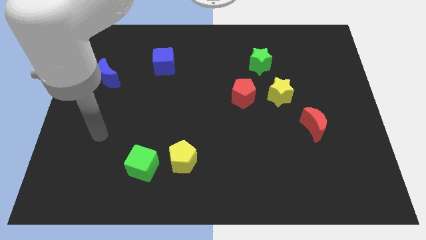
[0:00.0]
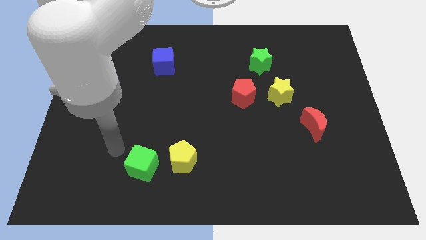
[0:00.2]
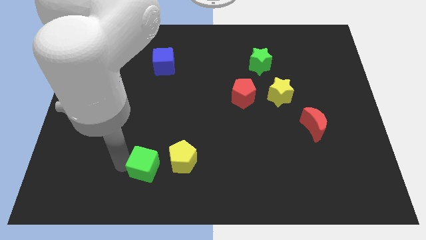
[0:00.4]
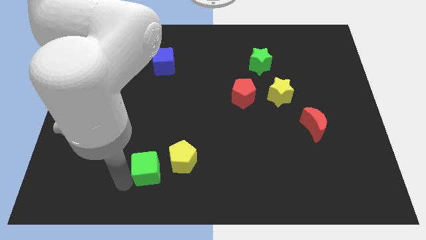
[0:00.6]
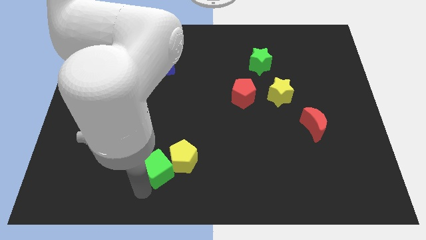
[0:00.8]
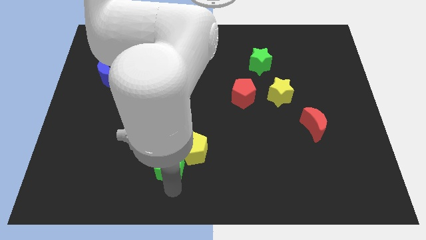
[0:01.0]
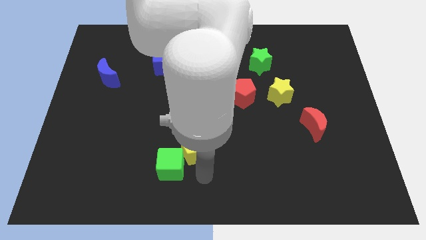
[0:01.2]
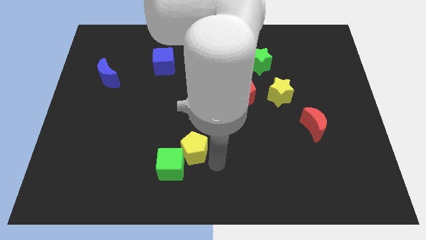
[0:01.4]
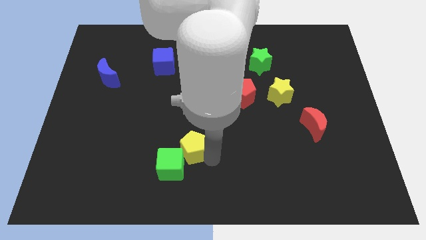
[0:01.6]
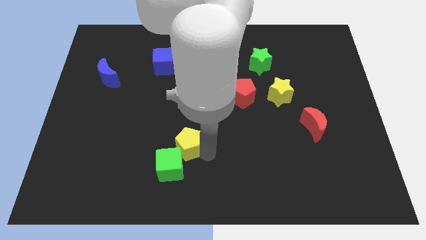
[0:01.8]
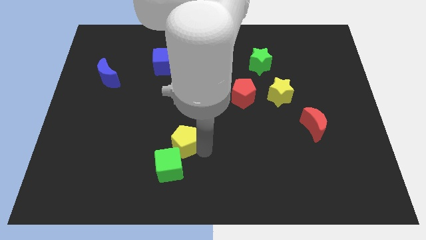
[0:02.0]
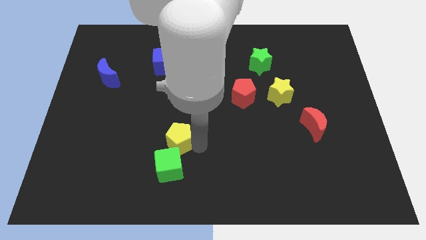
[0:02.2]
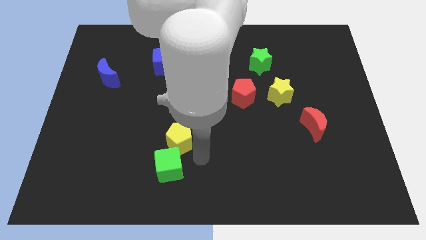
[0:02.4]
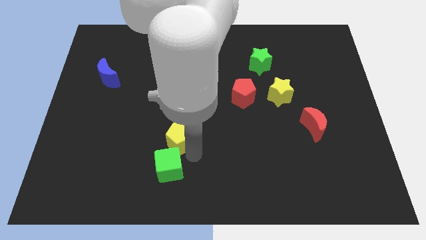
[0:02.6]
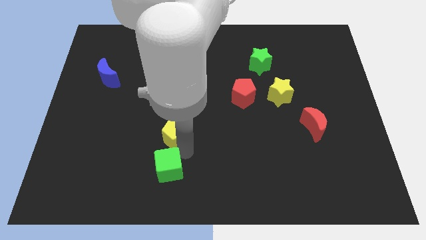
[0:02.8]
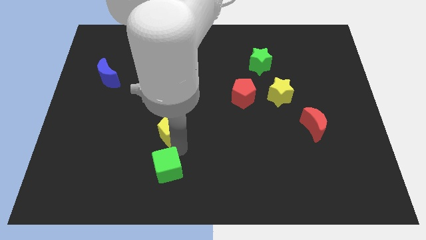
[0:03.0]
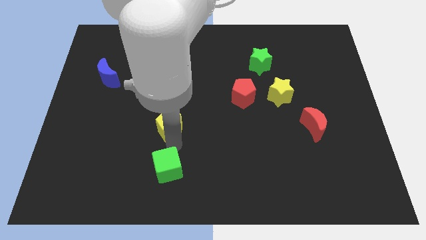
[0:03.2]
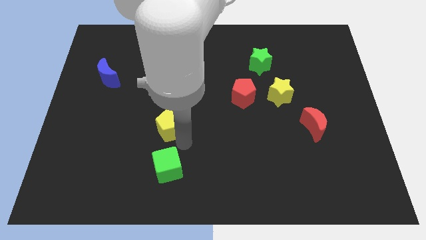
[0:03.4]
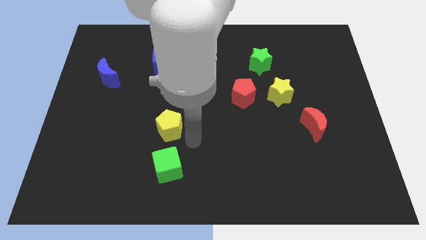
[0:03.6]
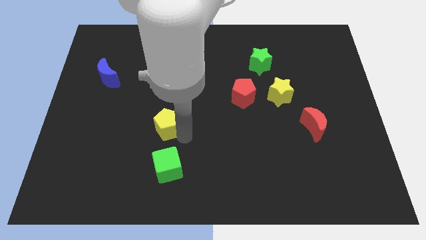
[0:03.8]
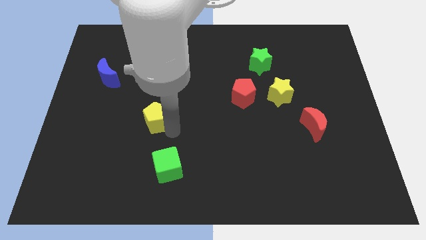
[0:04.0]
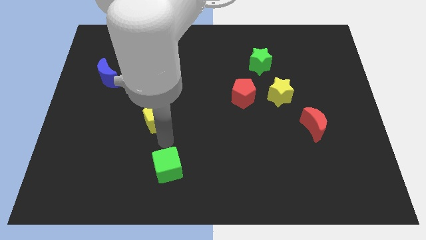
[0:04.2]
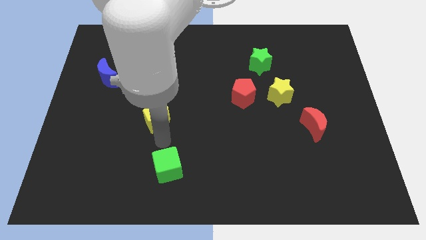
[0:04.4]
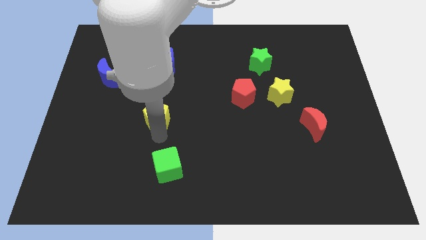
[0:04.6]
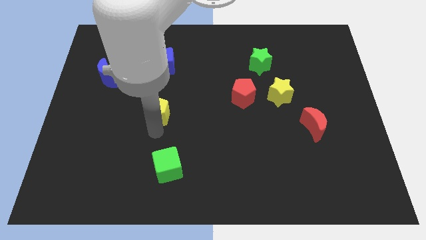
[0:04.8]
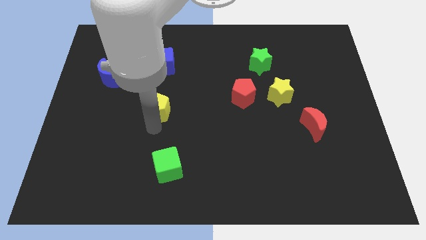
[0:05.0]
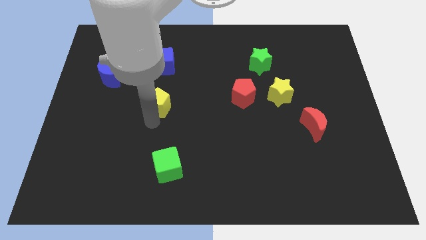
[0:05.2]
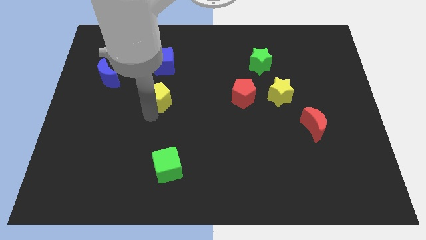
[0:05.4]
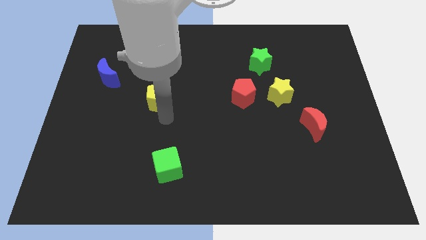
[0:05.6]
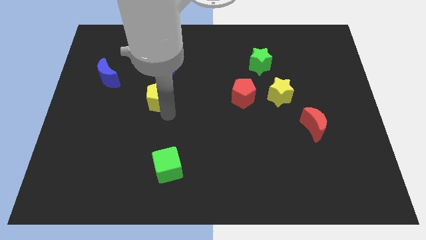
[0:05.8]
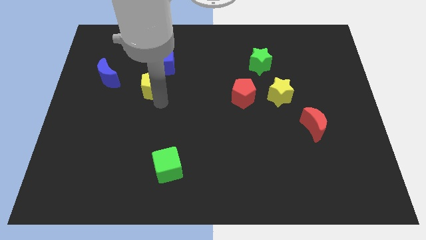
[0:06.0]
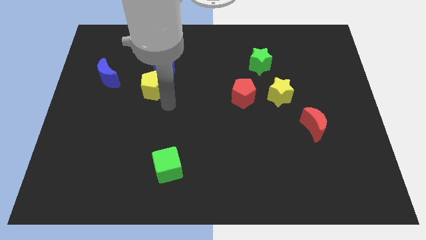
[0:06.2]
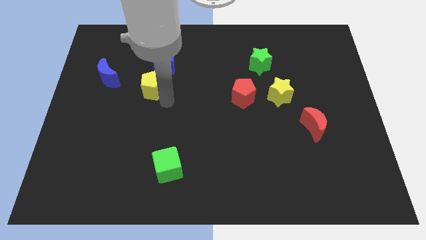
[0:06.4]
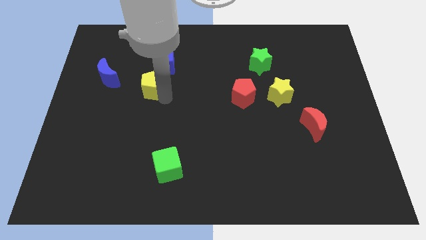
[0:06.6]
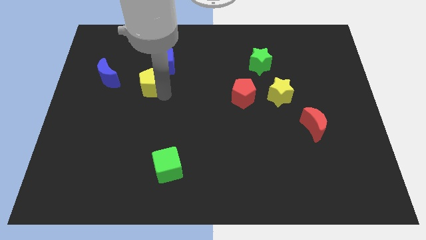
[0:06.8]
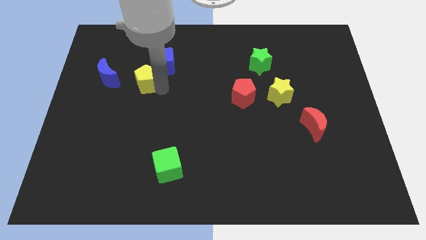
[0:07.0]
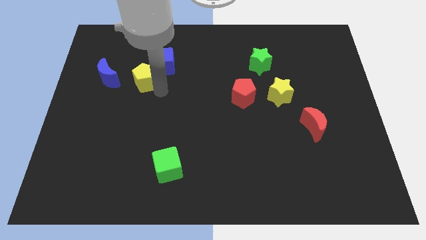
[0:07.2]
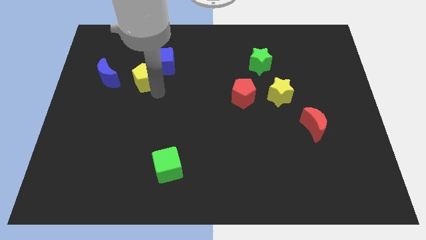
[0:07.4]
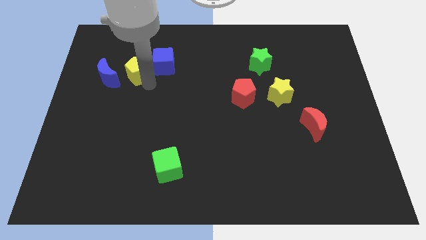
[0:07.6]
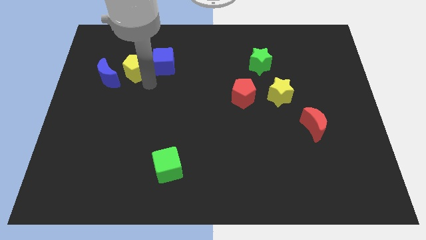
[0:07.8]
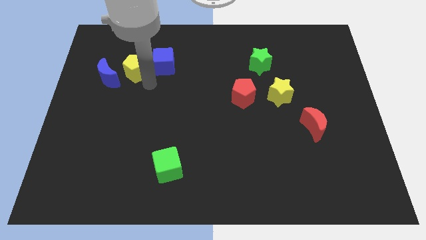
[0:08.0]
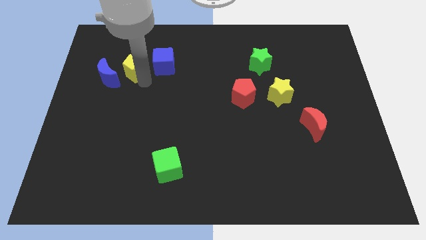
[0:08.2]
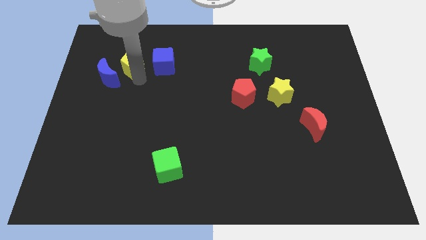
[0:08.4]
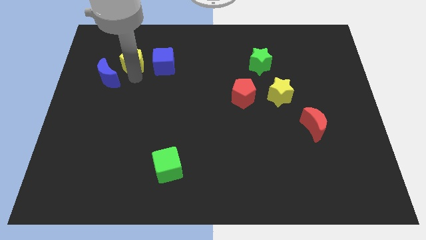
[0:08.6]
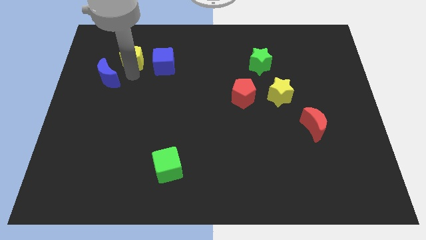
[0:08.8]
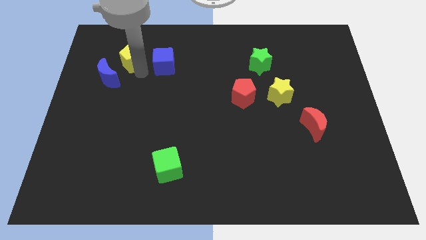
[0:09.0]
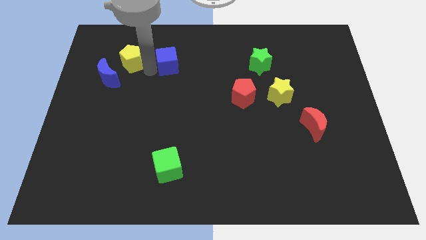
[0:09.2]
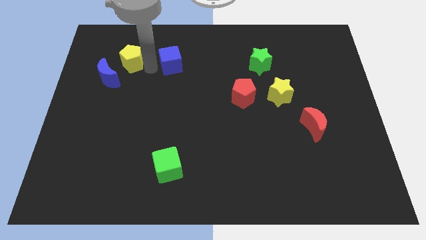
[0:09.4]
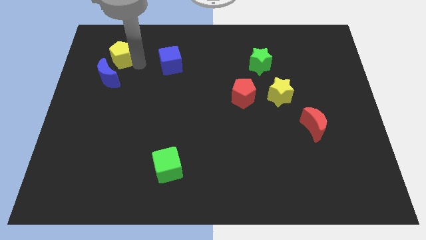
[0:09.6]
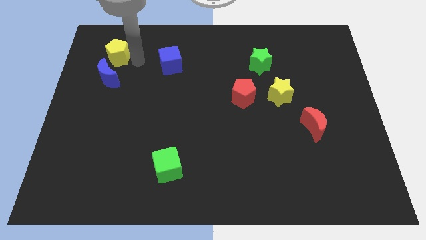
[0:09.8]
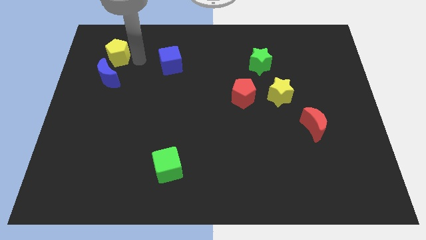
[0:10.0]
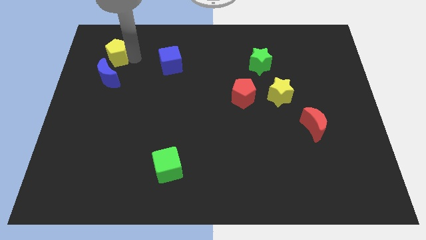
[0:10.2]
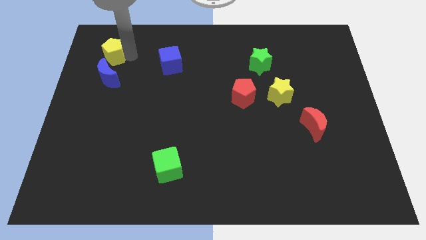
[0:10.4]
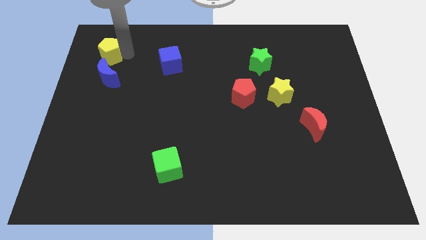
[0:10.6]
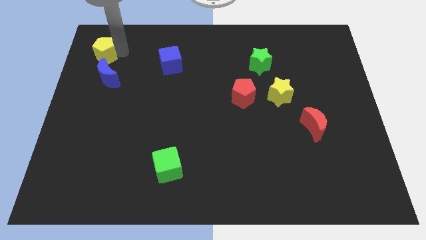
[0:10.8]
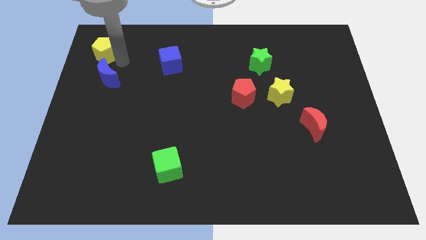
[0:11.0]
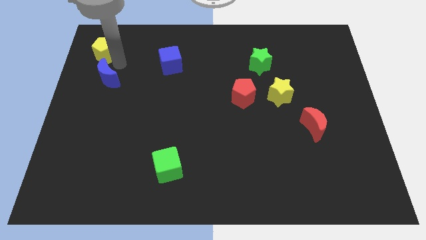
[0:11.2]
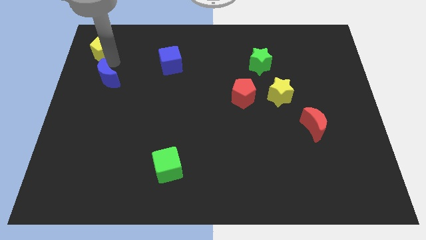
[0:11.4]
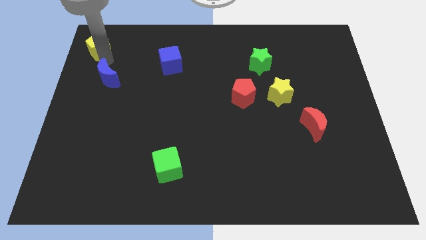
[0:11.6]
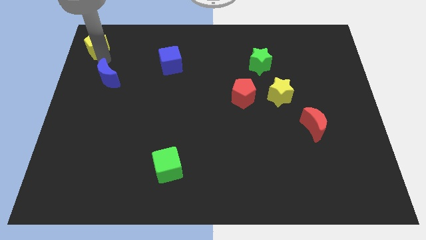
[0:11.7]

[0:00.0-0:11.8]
move the yellow pentagon to the upper left corner
